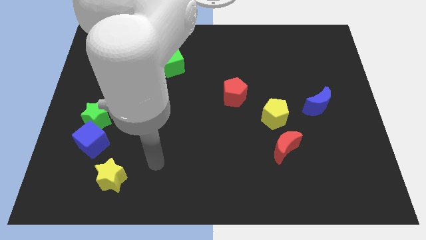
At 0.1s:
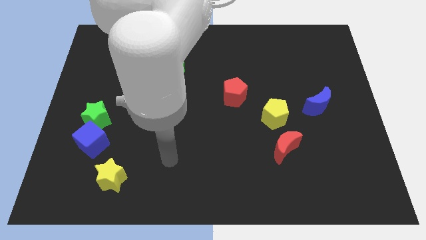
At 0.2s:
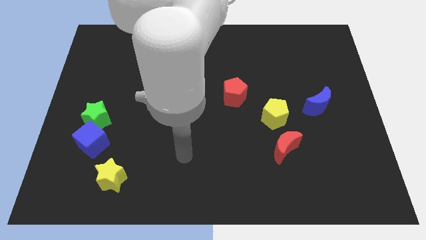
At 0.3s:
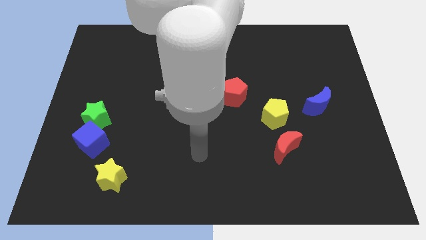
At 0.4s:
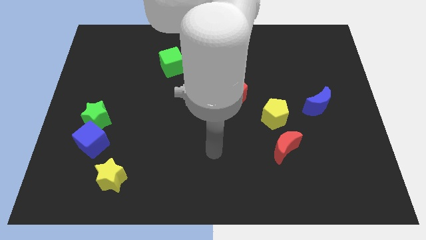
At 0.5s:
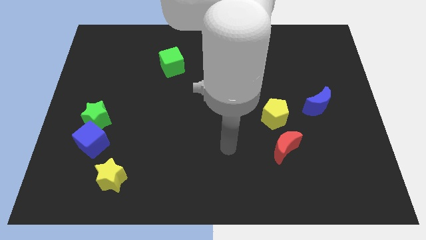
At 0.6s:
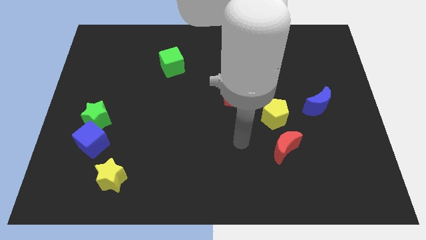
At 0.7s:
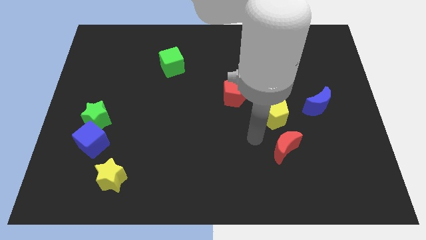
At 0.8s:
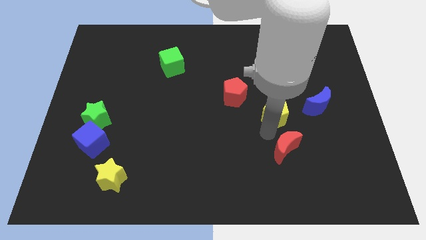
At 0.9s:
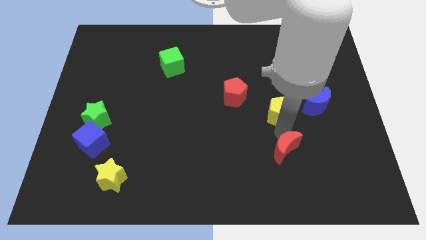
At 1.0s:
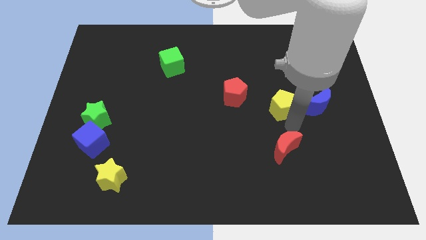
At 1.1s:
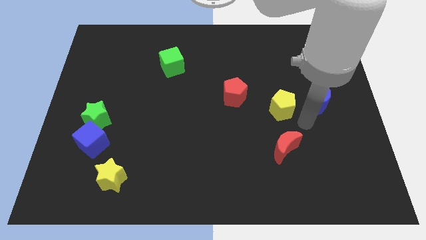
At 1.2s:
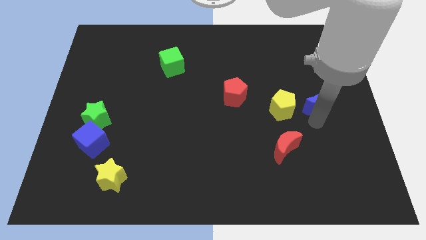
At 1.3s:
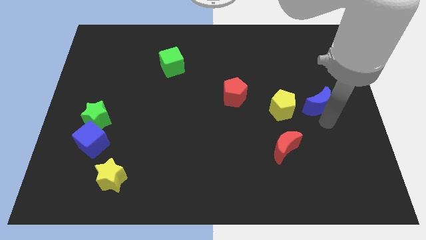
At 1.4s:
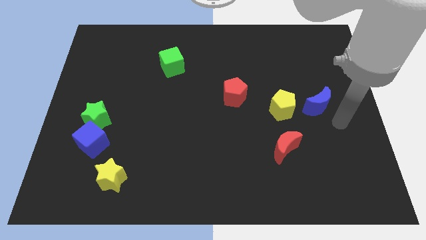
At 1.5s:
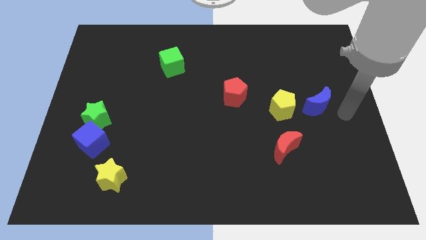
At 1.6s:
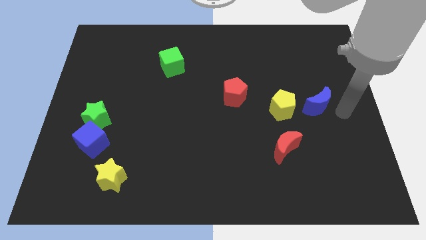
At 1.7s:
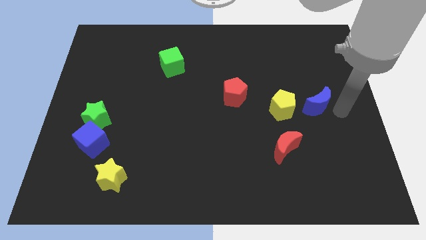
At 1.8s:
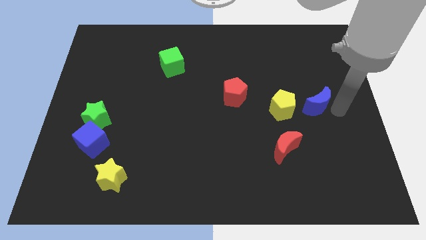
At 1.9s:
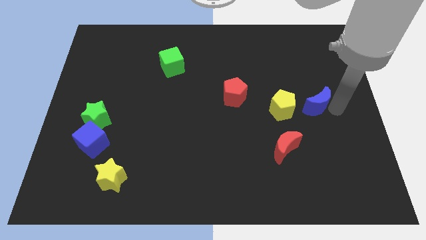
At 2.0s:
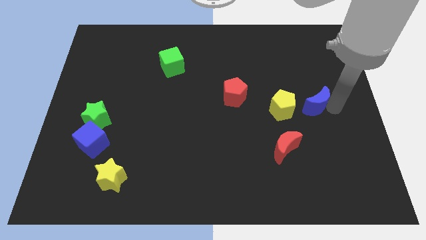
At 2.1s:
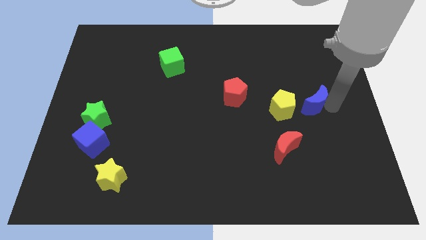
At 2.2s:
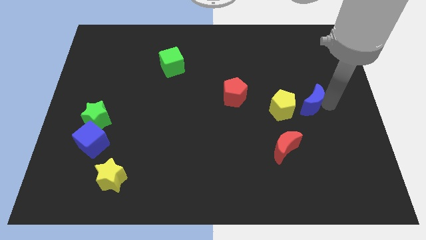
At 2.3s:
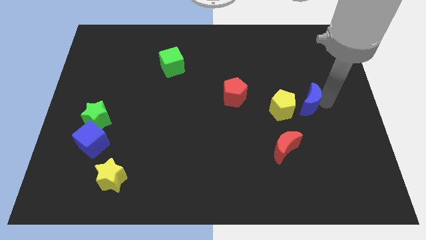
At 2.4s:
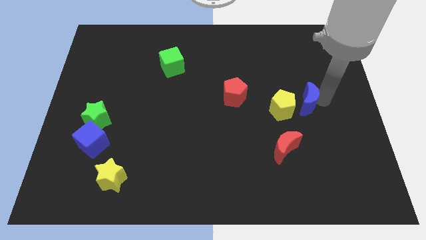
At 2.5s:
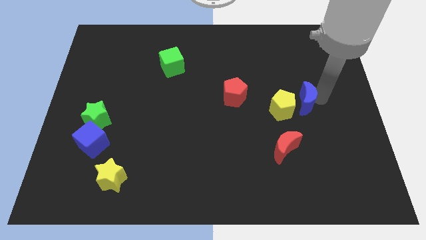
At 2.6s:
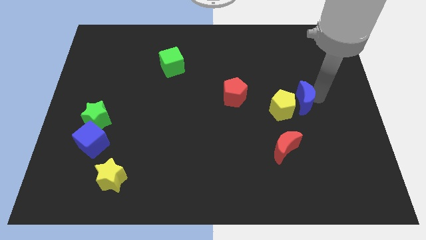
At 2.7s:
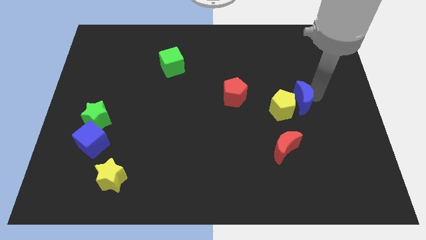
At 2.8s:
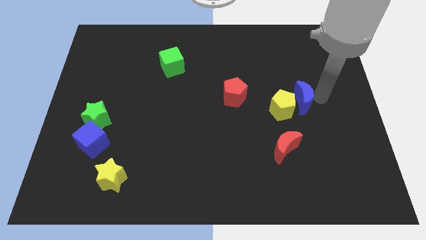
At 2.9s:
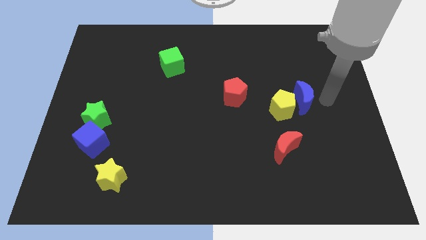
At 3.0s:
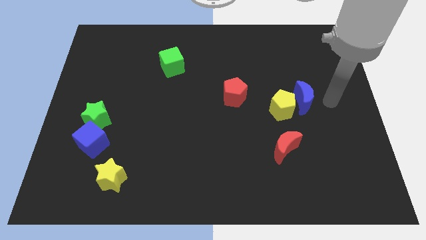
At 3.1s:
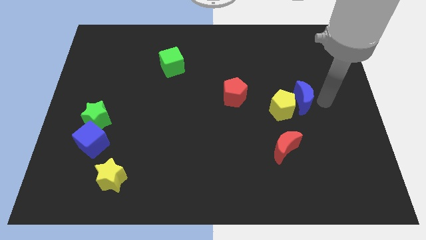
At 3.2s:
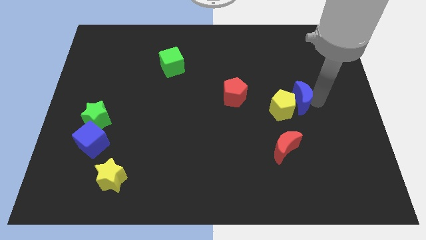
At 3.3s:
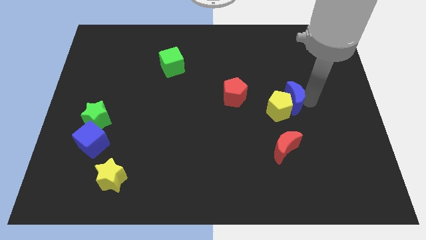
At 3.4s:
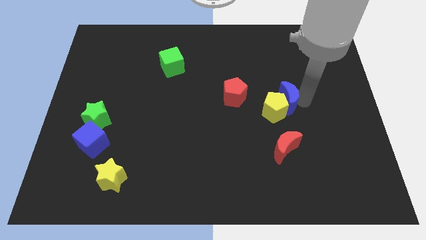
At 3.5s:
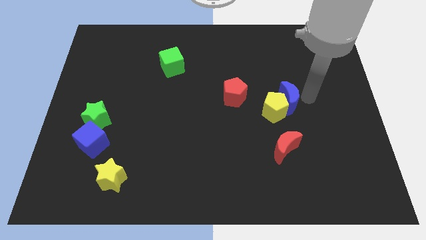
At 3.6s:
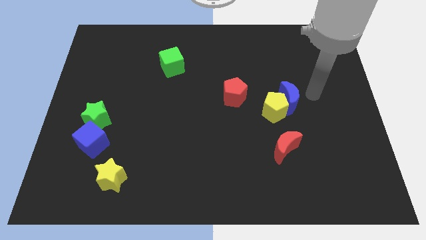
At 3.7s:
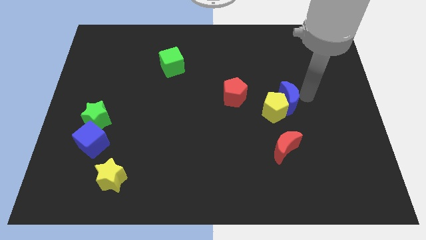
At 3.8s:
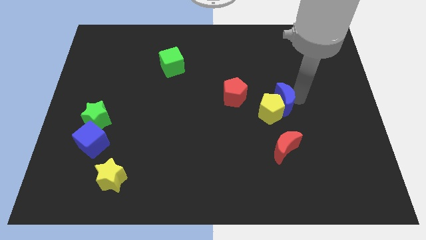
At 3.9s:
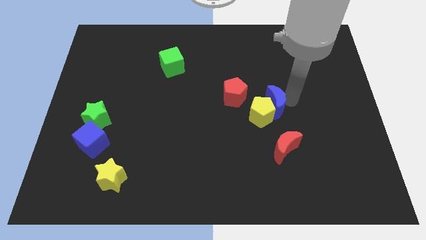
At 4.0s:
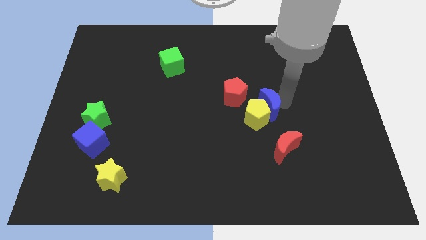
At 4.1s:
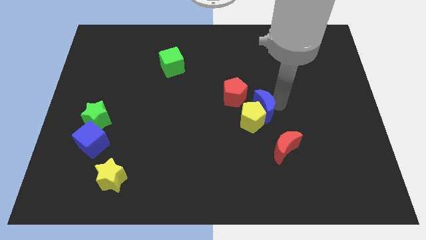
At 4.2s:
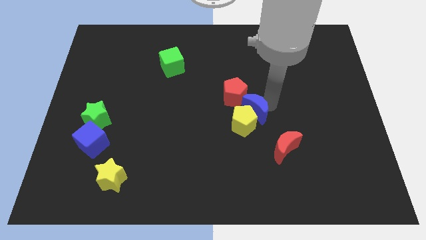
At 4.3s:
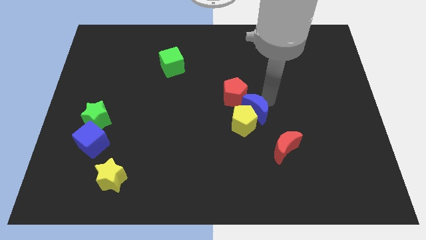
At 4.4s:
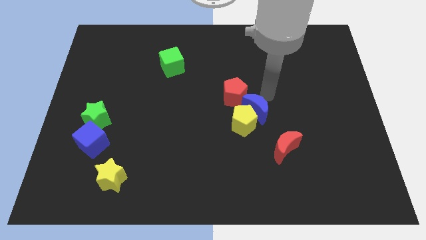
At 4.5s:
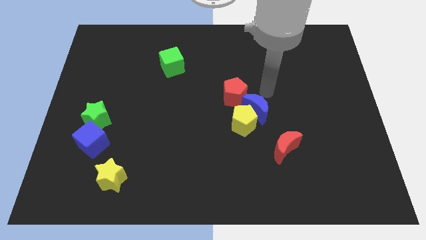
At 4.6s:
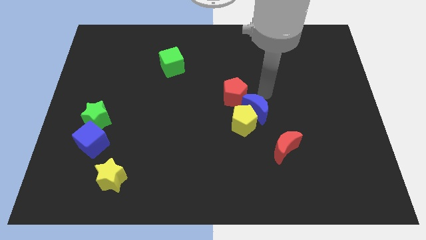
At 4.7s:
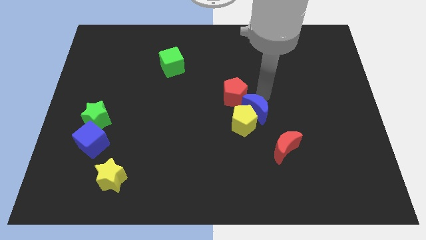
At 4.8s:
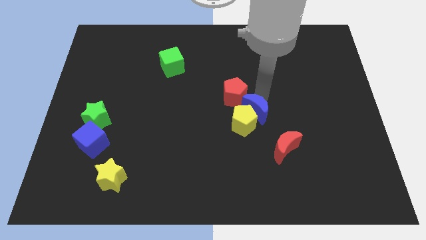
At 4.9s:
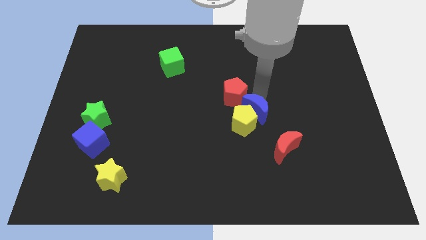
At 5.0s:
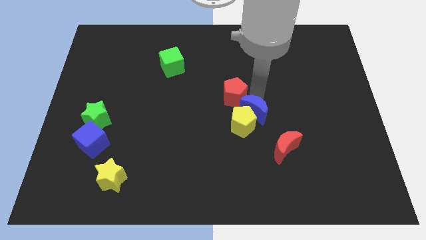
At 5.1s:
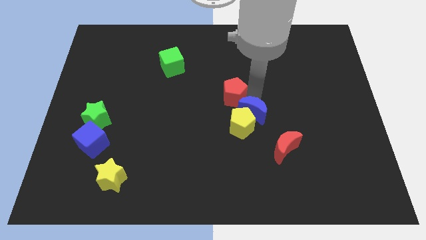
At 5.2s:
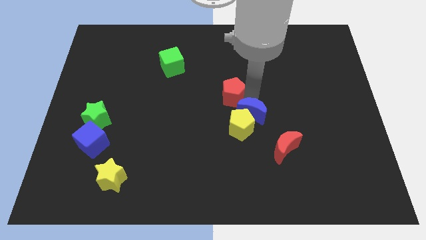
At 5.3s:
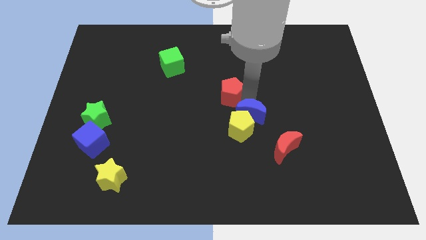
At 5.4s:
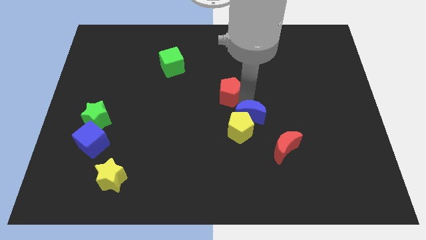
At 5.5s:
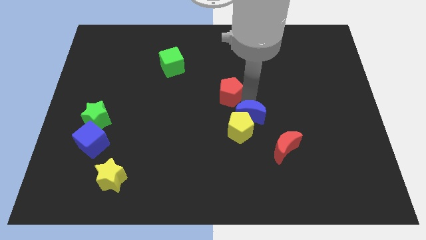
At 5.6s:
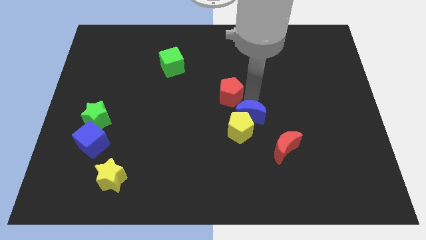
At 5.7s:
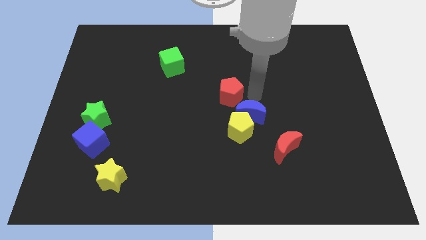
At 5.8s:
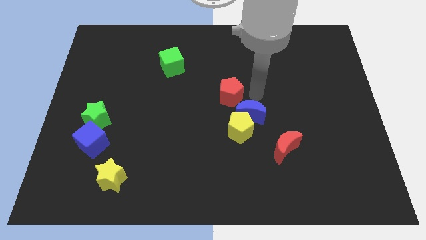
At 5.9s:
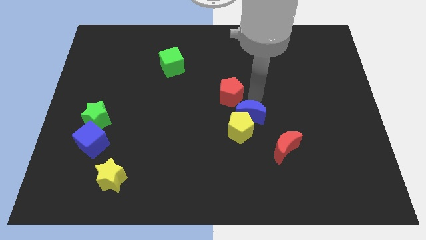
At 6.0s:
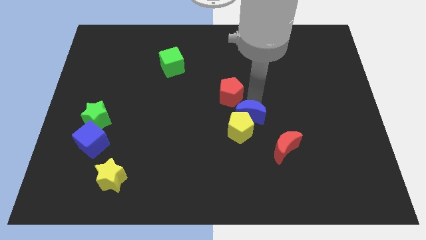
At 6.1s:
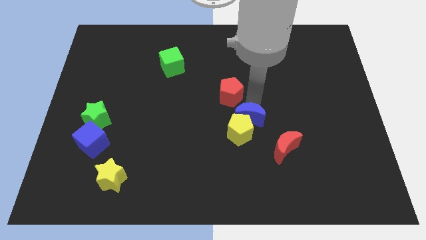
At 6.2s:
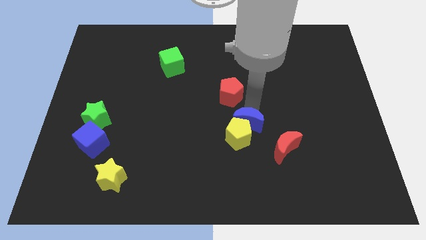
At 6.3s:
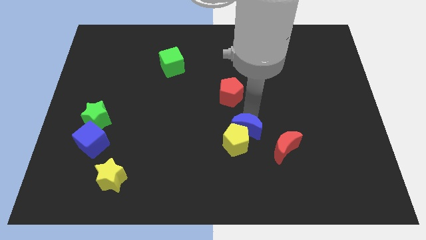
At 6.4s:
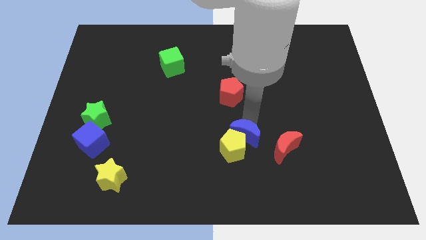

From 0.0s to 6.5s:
move the blue moon to the left of the red moon

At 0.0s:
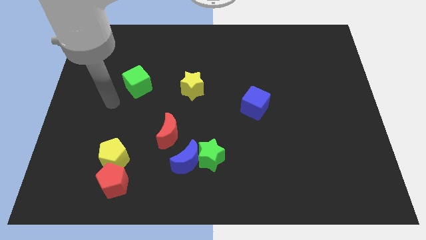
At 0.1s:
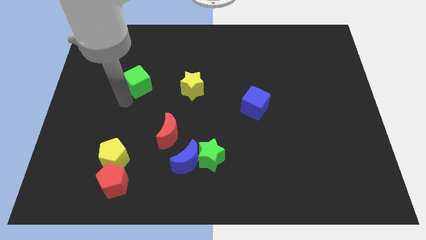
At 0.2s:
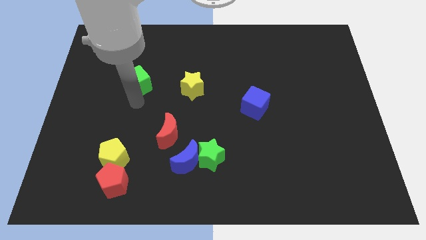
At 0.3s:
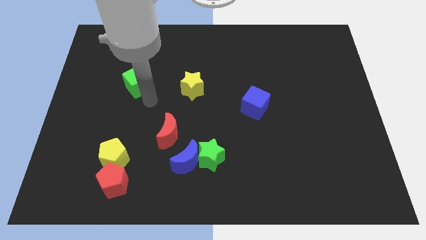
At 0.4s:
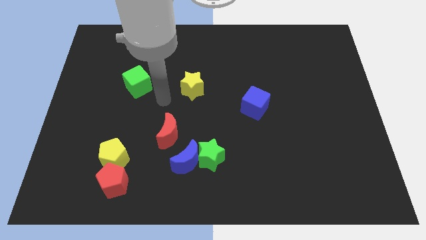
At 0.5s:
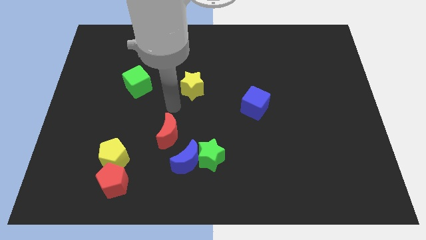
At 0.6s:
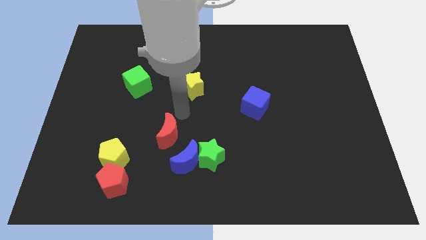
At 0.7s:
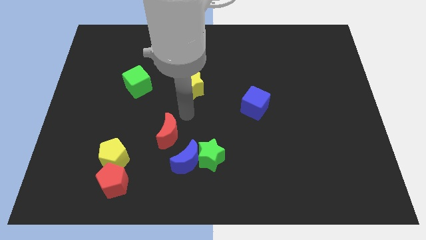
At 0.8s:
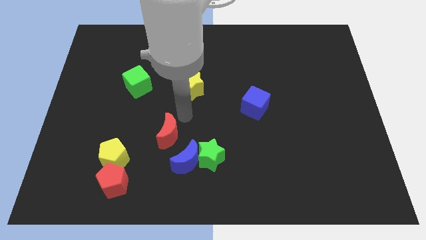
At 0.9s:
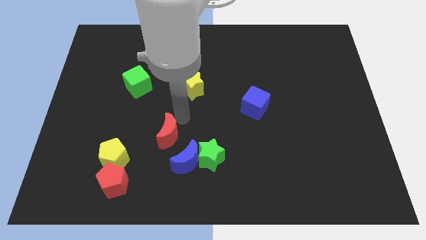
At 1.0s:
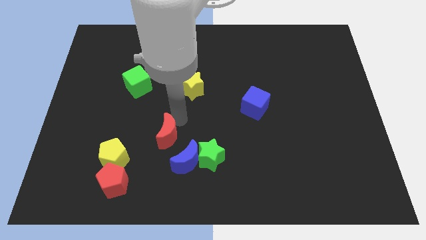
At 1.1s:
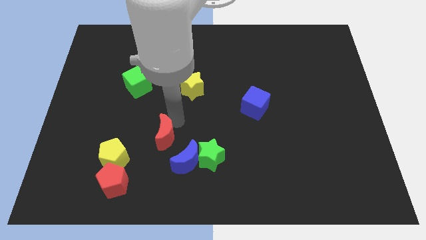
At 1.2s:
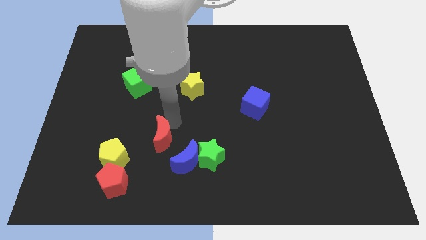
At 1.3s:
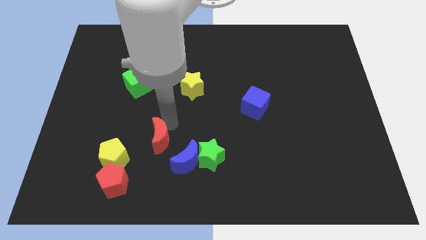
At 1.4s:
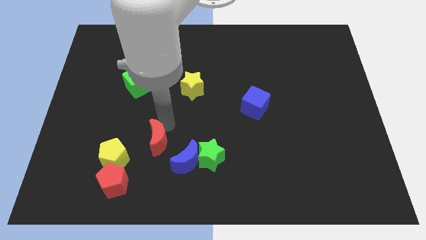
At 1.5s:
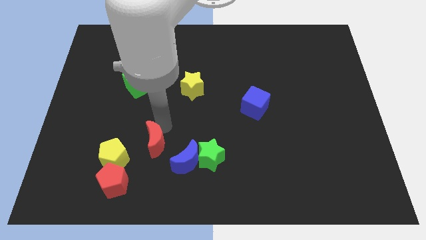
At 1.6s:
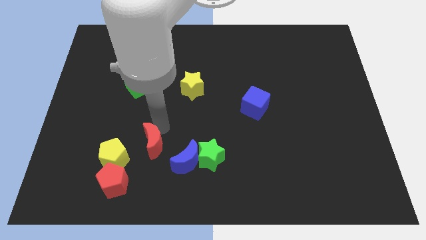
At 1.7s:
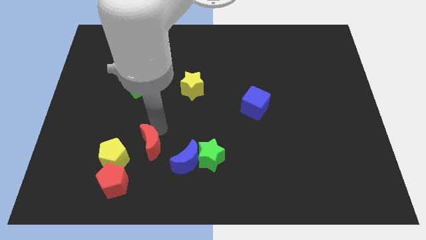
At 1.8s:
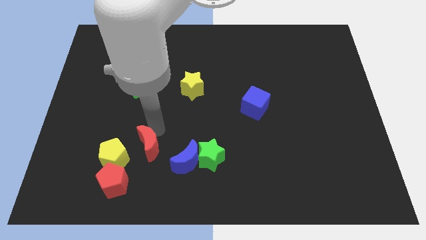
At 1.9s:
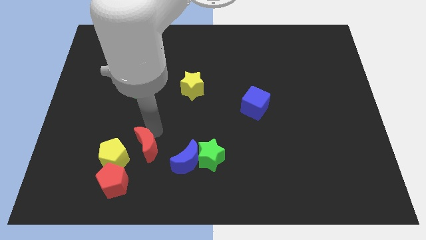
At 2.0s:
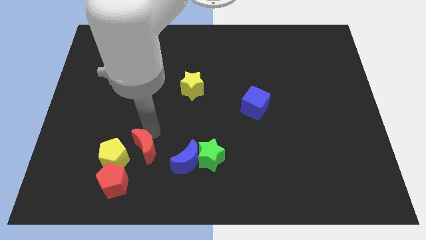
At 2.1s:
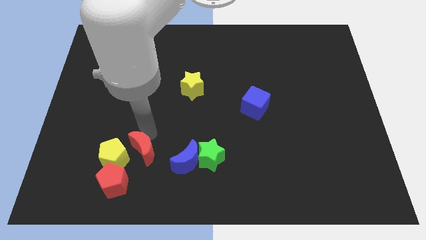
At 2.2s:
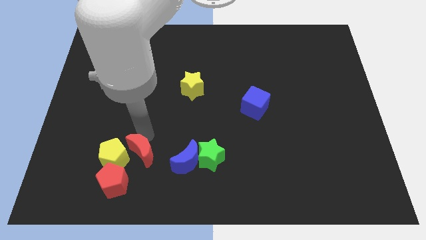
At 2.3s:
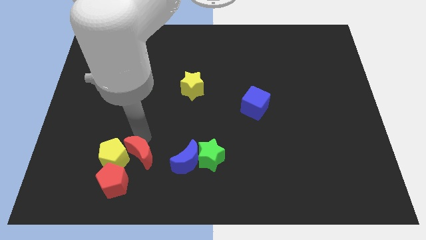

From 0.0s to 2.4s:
put the red moon diagonally down and to the right of the yellow pentagon
